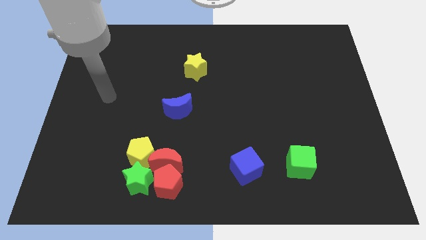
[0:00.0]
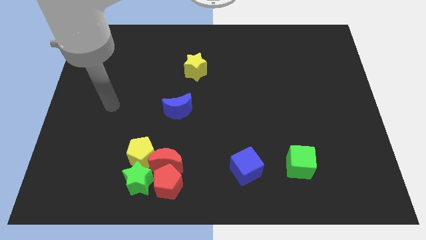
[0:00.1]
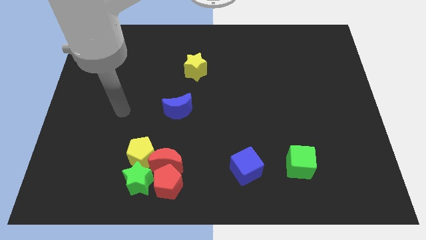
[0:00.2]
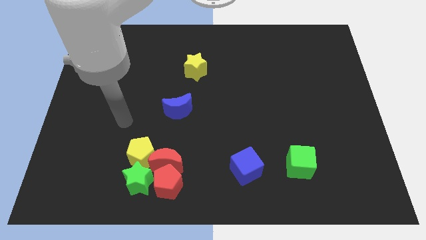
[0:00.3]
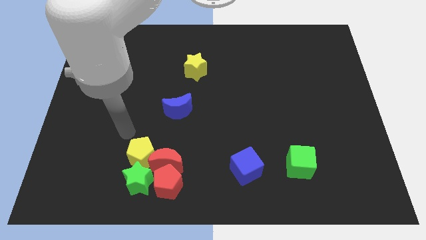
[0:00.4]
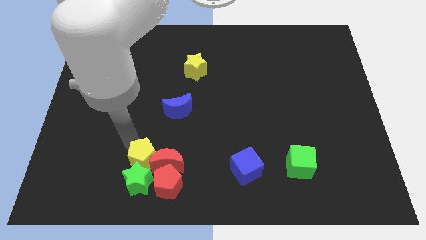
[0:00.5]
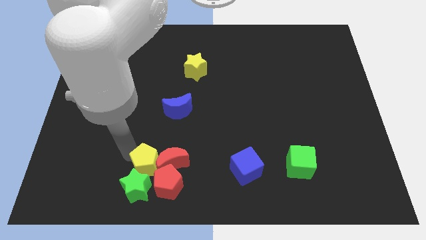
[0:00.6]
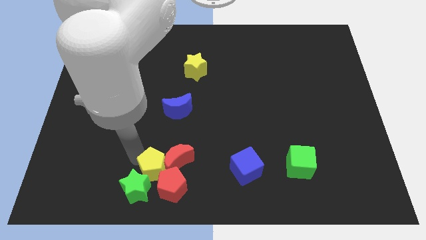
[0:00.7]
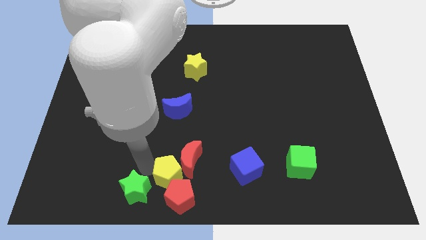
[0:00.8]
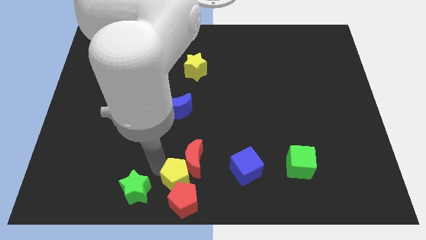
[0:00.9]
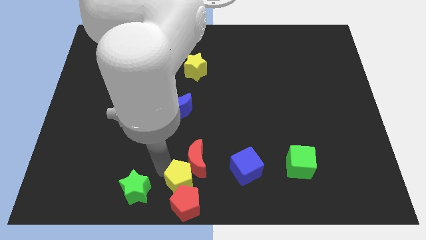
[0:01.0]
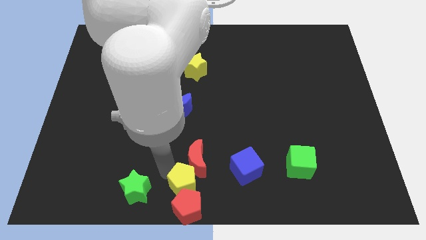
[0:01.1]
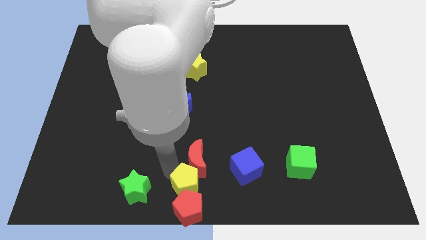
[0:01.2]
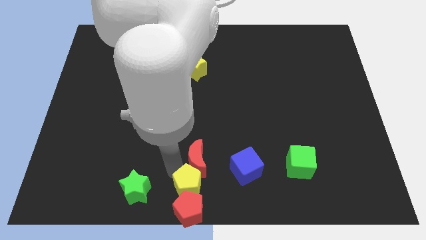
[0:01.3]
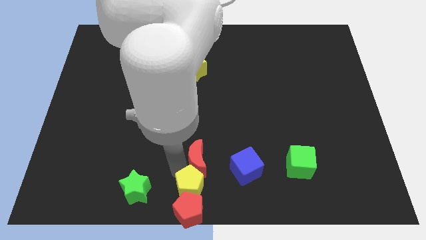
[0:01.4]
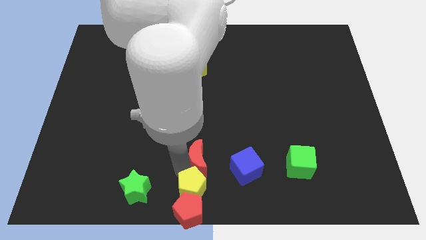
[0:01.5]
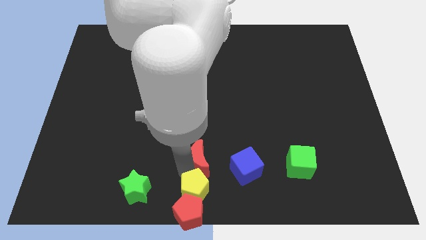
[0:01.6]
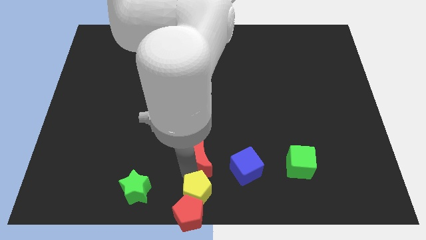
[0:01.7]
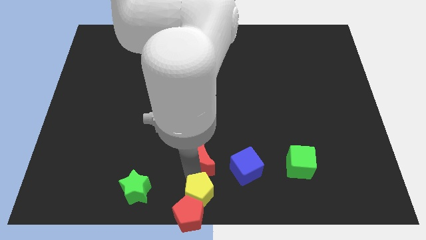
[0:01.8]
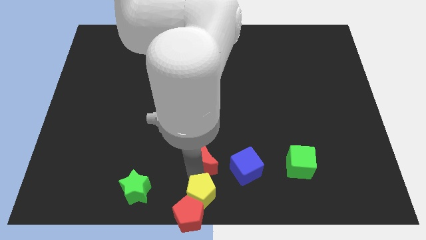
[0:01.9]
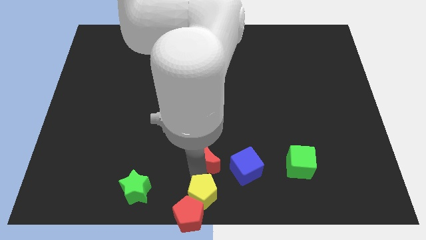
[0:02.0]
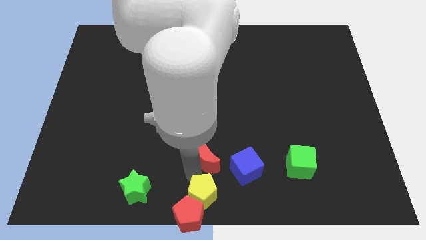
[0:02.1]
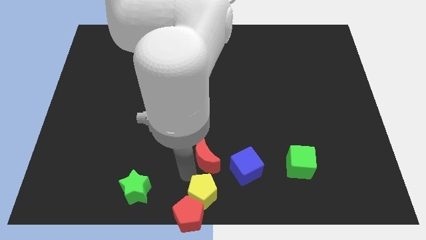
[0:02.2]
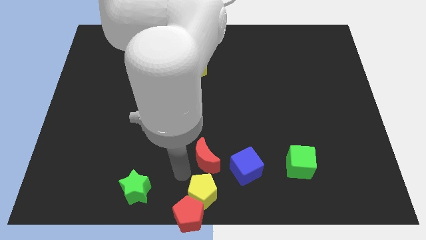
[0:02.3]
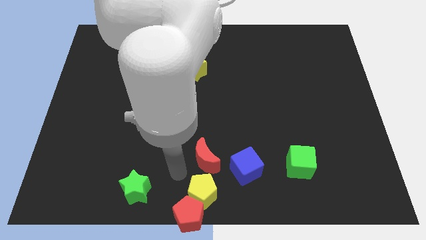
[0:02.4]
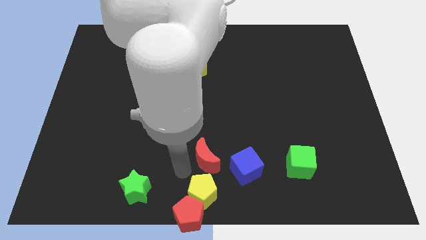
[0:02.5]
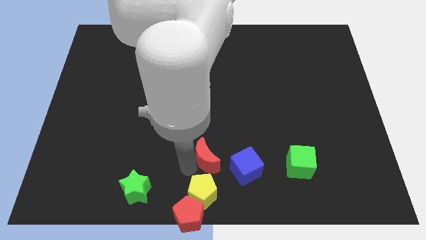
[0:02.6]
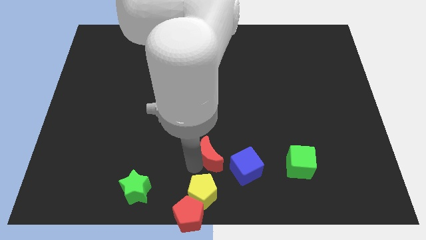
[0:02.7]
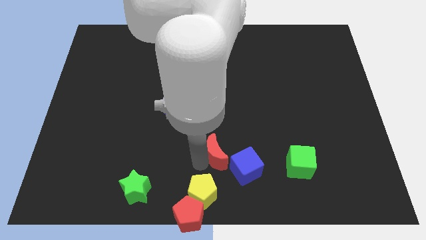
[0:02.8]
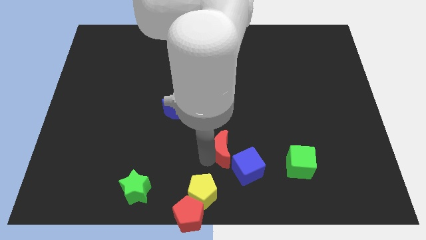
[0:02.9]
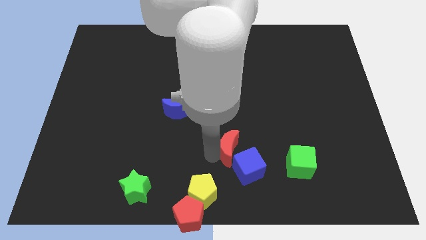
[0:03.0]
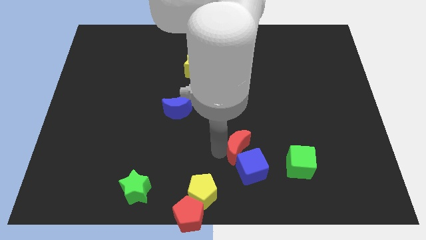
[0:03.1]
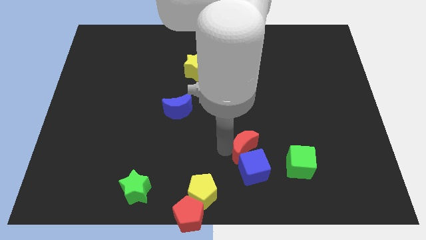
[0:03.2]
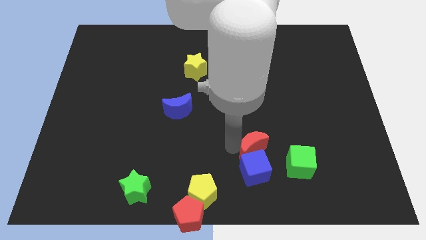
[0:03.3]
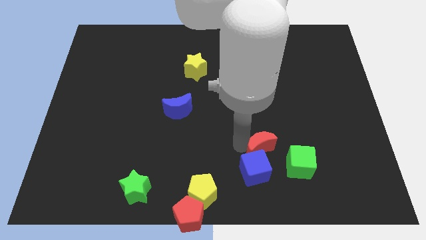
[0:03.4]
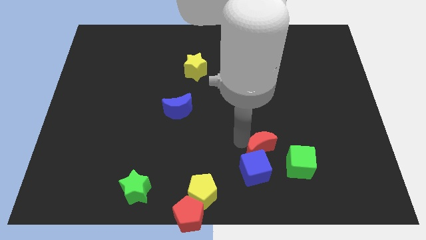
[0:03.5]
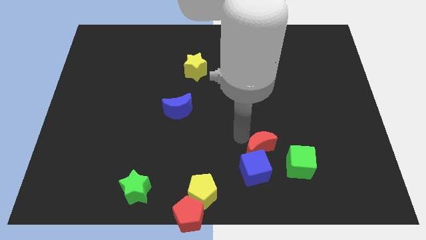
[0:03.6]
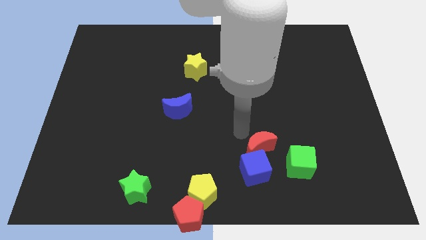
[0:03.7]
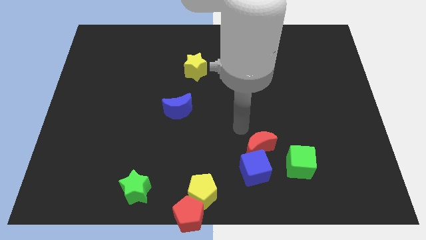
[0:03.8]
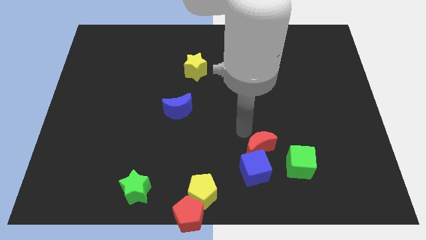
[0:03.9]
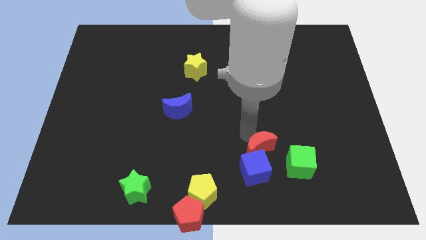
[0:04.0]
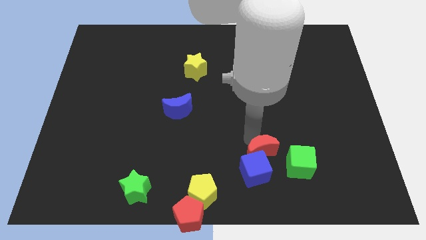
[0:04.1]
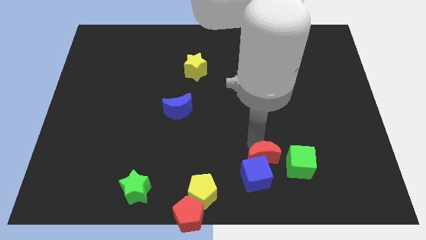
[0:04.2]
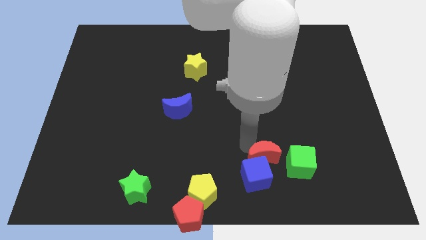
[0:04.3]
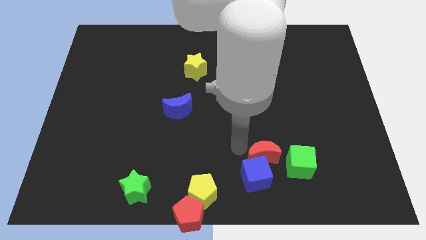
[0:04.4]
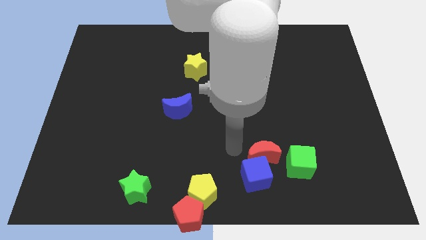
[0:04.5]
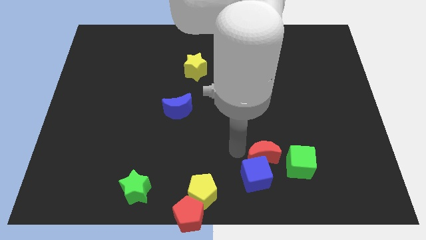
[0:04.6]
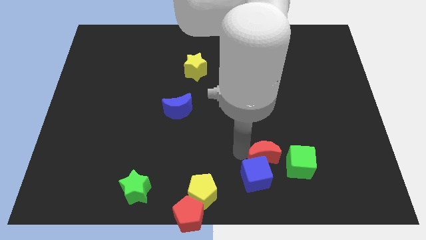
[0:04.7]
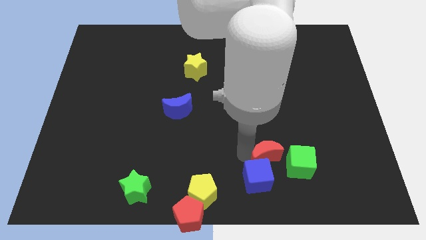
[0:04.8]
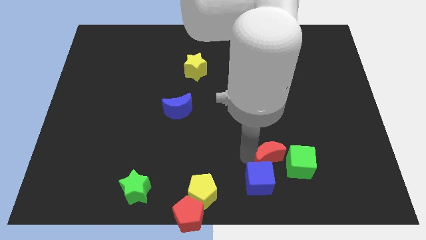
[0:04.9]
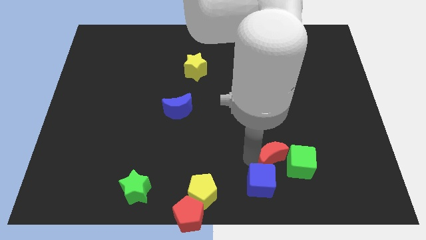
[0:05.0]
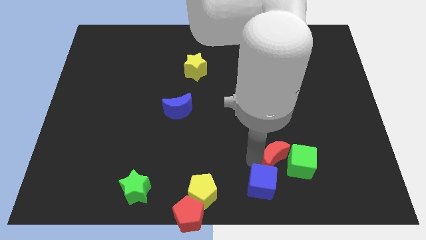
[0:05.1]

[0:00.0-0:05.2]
move the red moon to the green cube

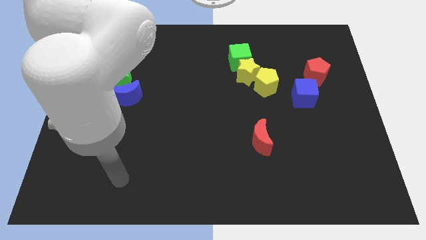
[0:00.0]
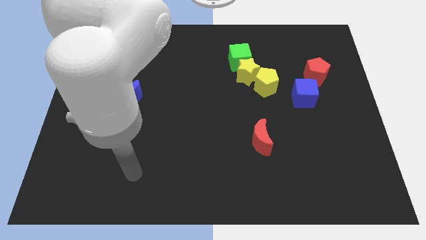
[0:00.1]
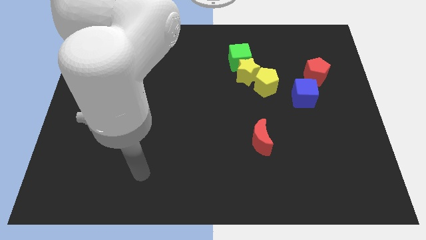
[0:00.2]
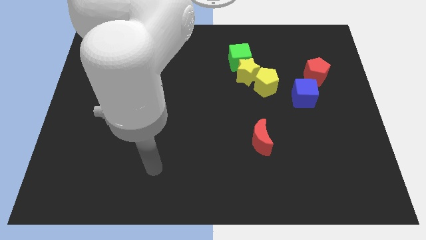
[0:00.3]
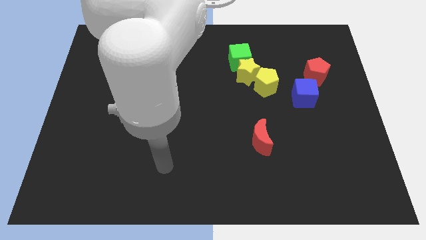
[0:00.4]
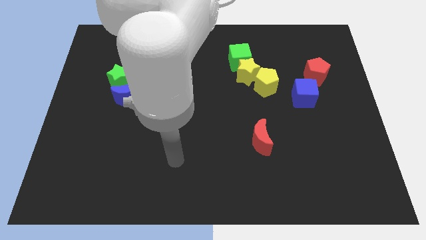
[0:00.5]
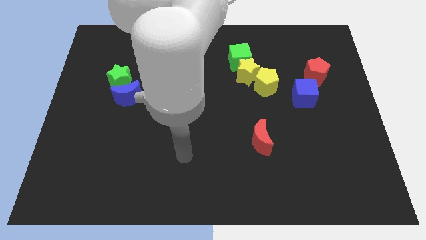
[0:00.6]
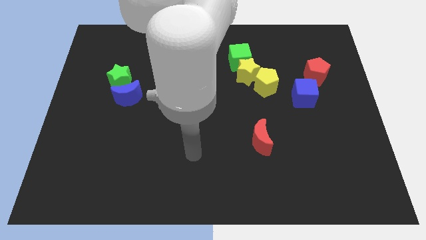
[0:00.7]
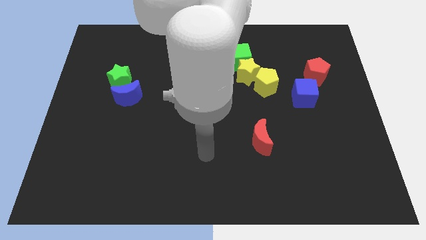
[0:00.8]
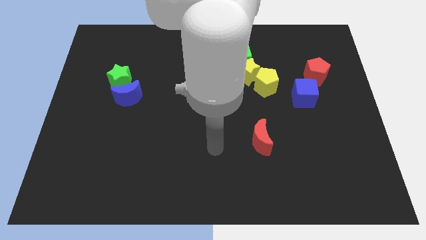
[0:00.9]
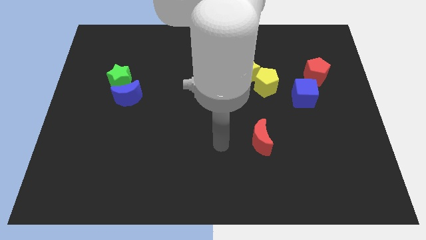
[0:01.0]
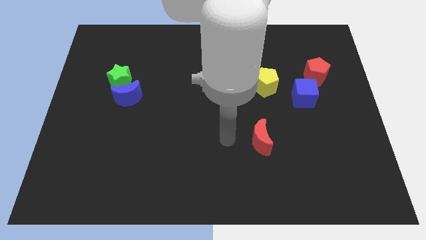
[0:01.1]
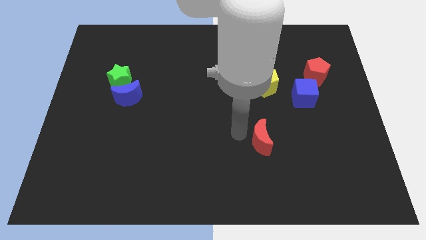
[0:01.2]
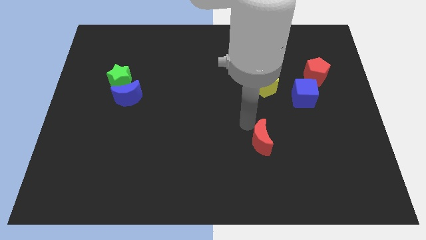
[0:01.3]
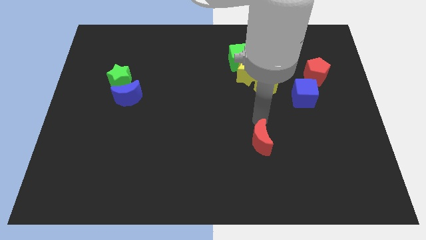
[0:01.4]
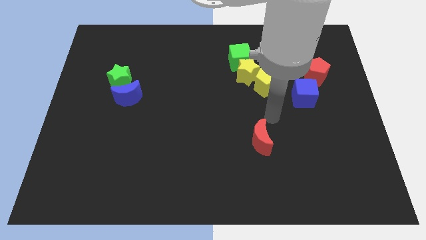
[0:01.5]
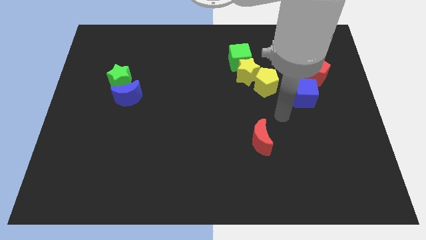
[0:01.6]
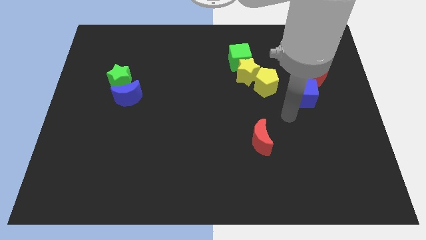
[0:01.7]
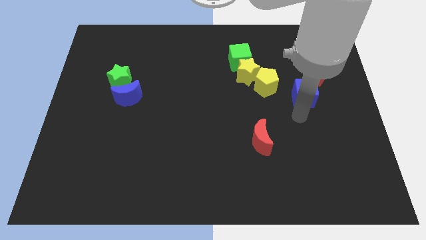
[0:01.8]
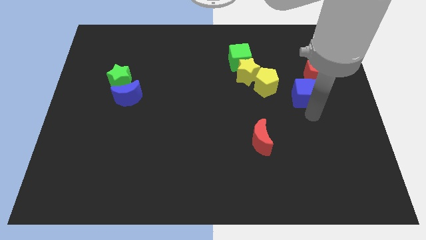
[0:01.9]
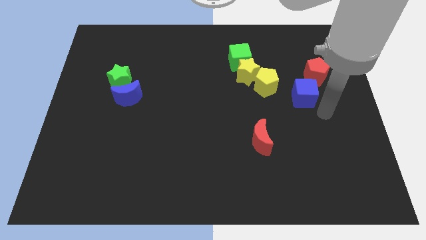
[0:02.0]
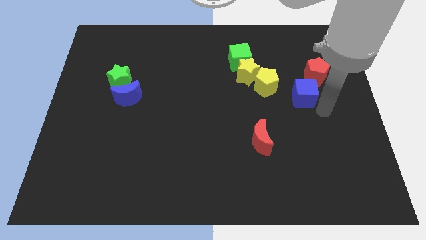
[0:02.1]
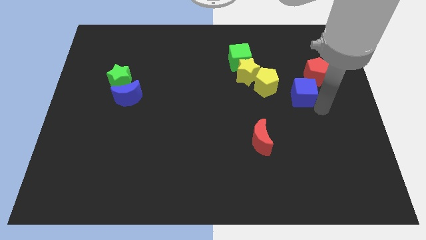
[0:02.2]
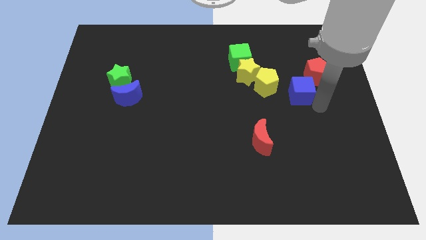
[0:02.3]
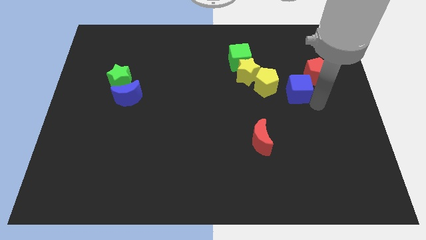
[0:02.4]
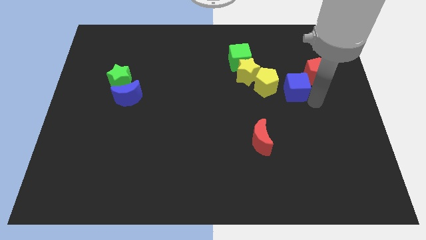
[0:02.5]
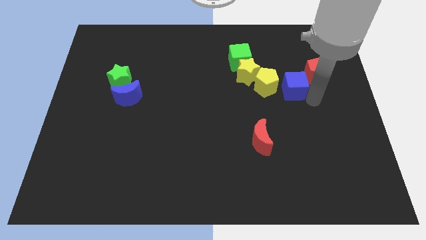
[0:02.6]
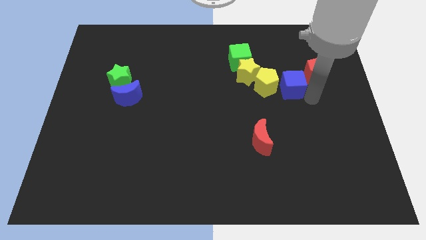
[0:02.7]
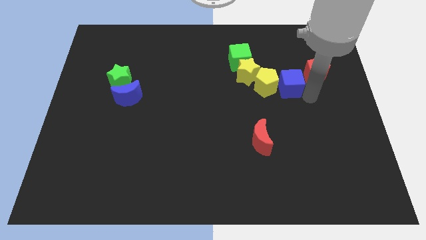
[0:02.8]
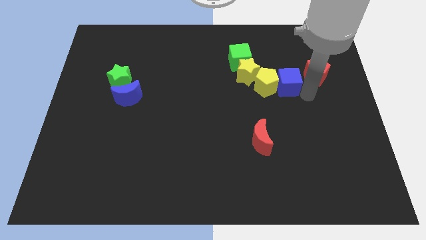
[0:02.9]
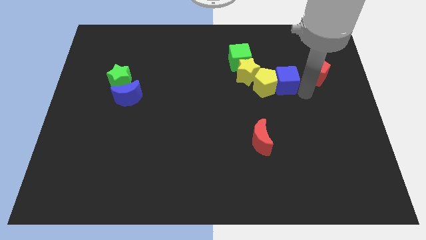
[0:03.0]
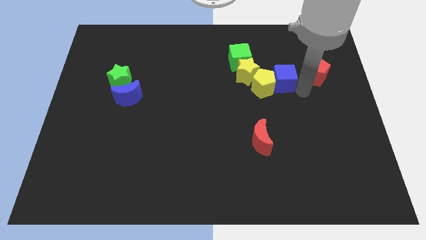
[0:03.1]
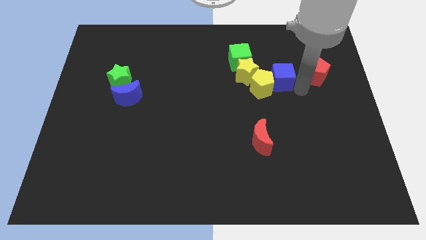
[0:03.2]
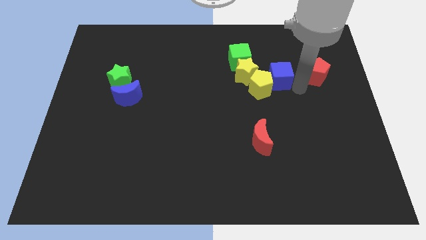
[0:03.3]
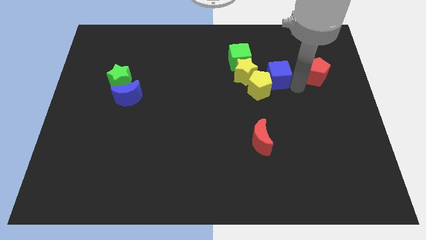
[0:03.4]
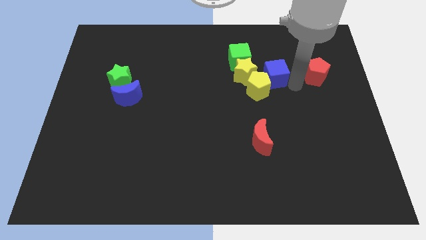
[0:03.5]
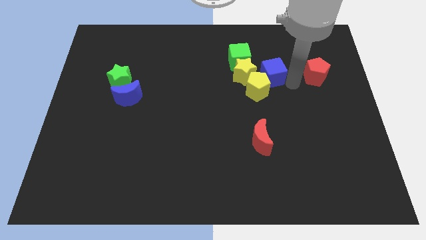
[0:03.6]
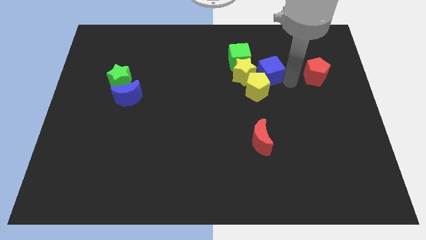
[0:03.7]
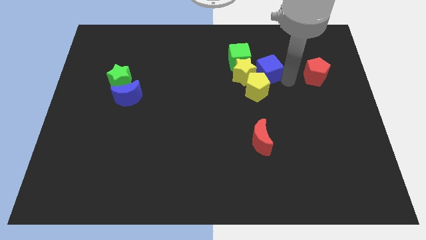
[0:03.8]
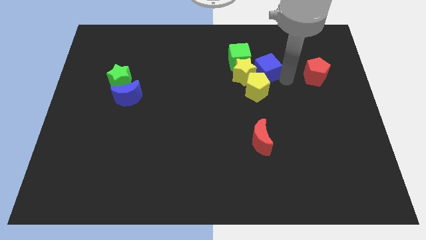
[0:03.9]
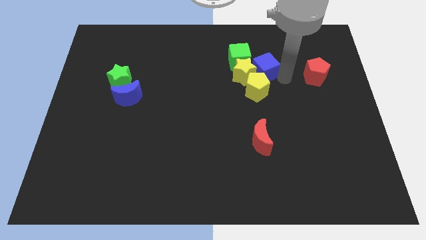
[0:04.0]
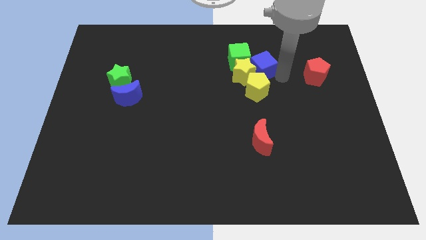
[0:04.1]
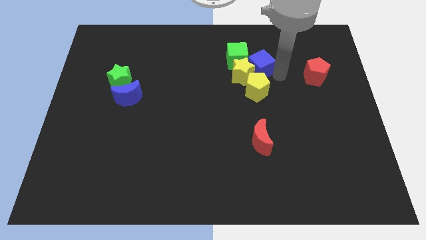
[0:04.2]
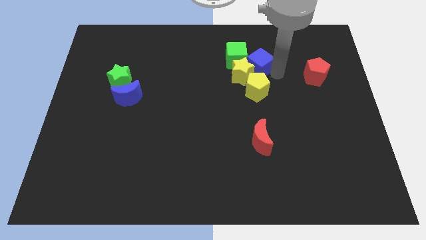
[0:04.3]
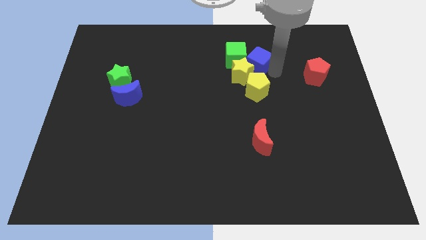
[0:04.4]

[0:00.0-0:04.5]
push the blue cube close to the green cube
